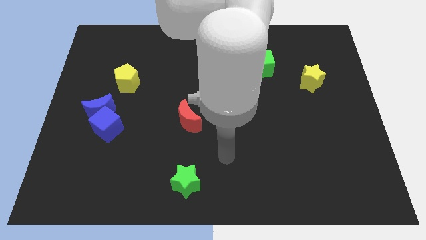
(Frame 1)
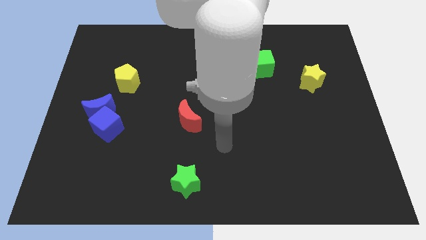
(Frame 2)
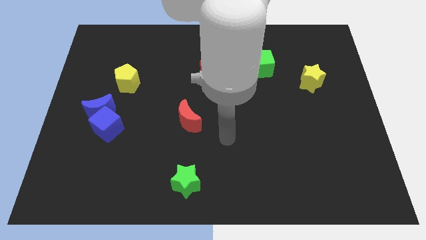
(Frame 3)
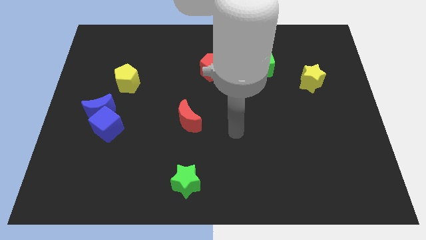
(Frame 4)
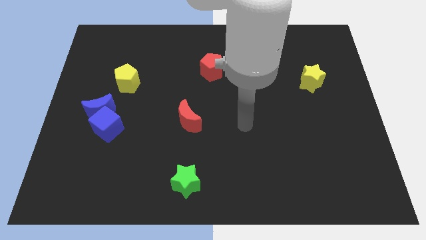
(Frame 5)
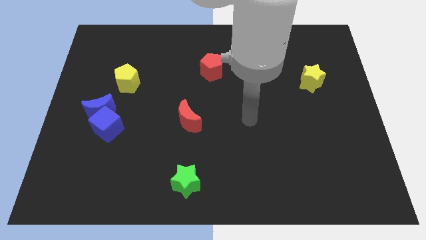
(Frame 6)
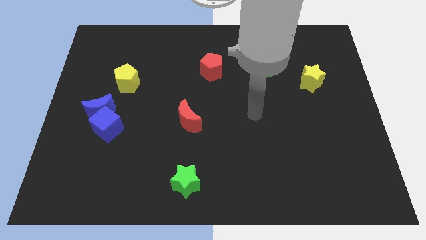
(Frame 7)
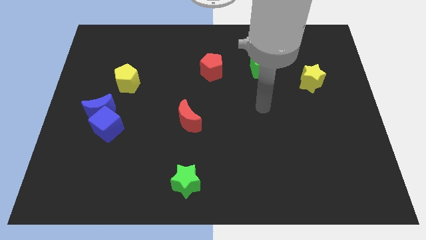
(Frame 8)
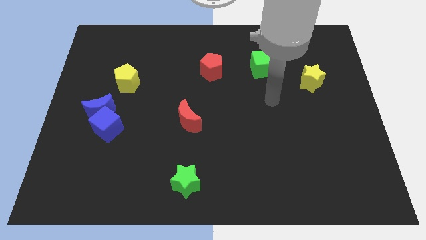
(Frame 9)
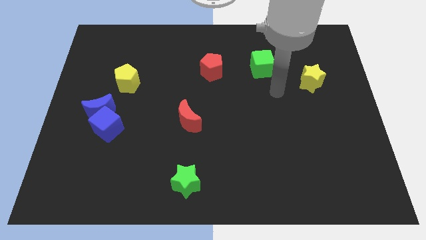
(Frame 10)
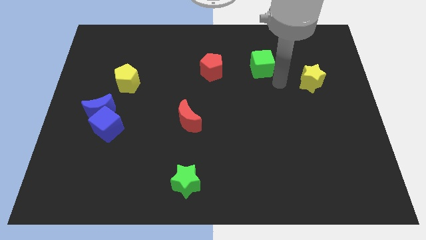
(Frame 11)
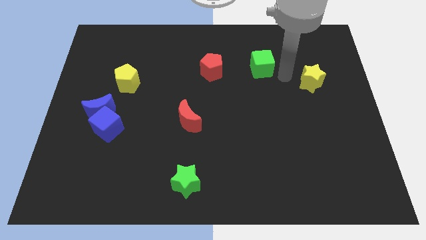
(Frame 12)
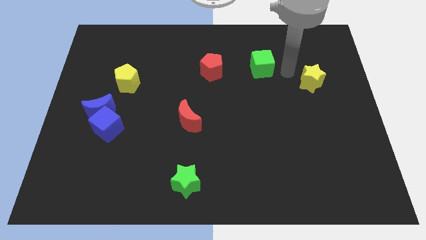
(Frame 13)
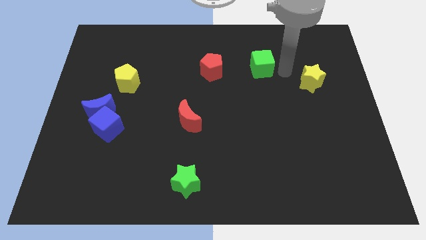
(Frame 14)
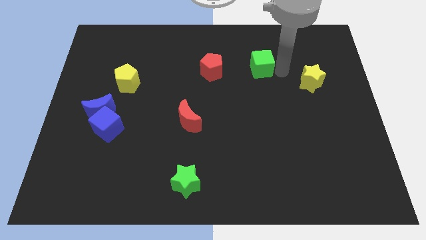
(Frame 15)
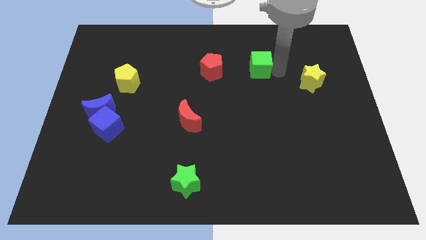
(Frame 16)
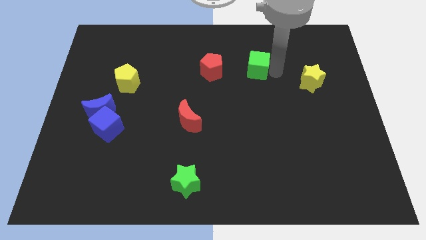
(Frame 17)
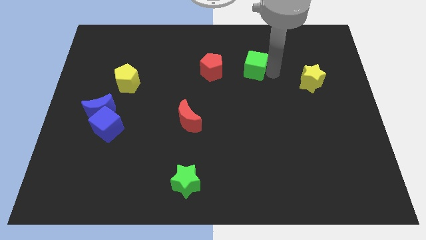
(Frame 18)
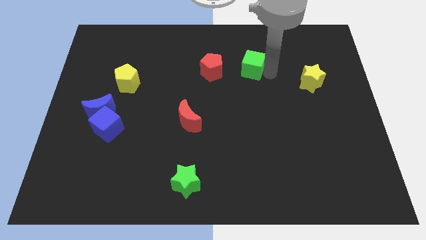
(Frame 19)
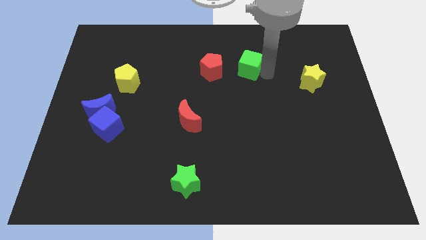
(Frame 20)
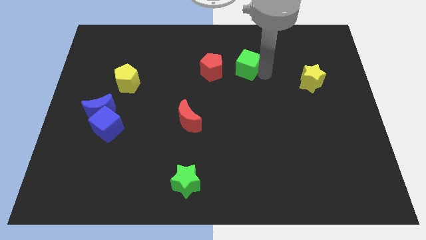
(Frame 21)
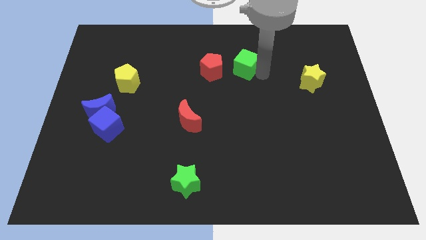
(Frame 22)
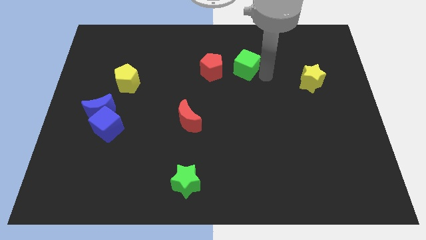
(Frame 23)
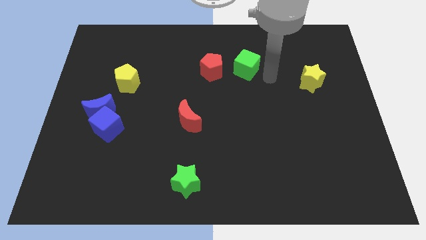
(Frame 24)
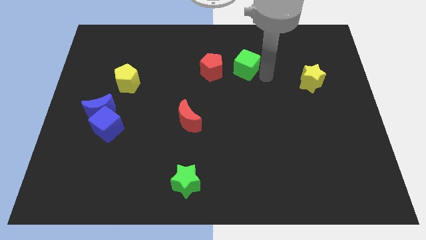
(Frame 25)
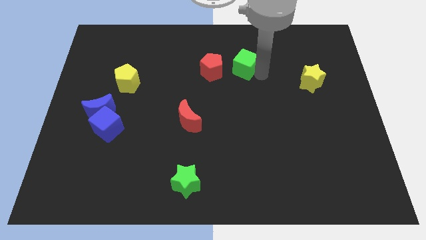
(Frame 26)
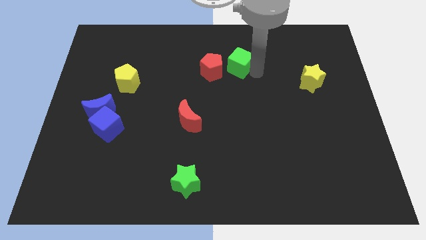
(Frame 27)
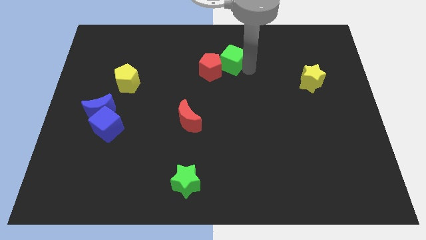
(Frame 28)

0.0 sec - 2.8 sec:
slightly push the green cube left

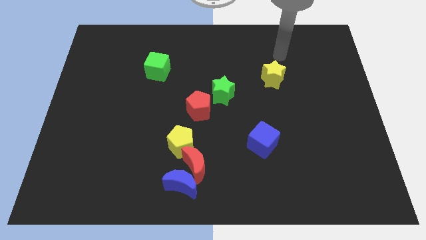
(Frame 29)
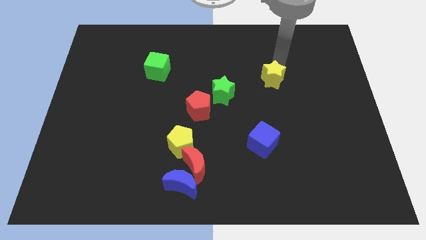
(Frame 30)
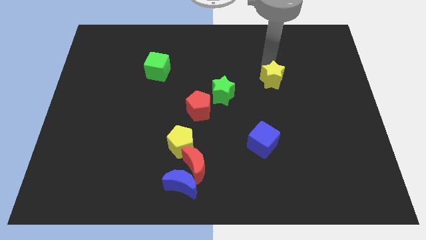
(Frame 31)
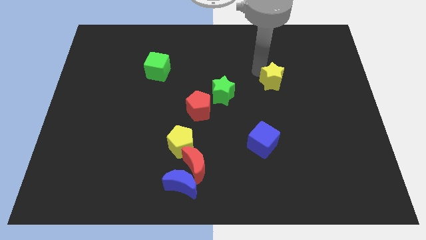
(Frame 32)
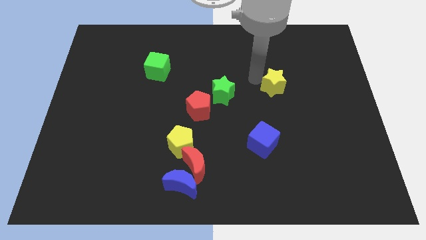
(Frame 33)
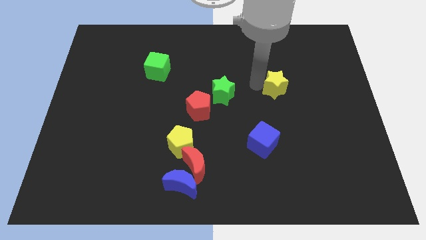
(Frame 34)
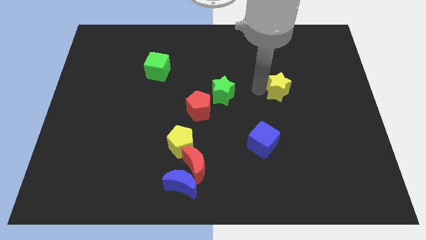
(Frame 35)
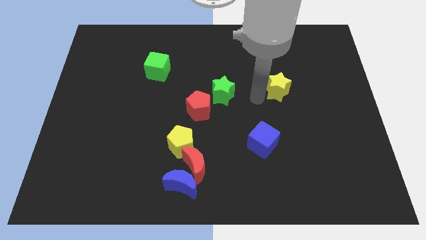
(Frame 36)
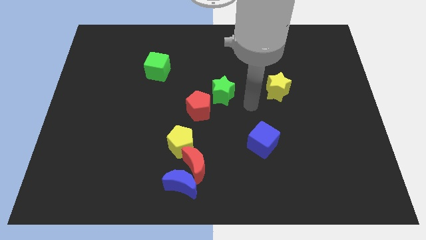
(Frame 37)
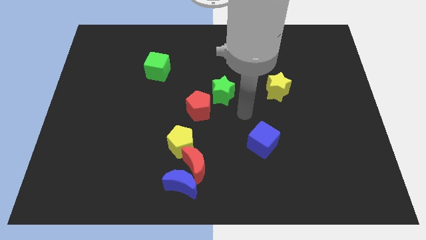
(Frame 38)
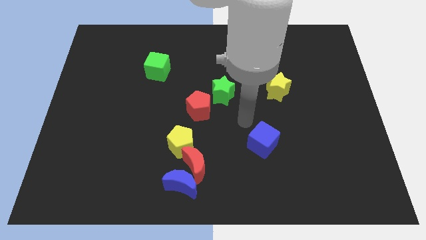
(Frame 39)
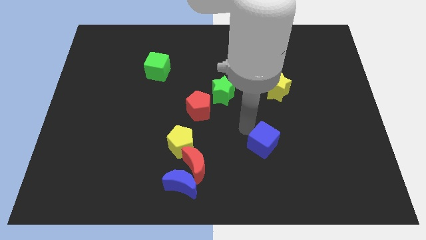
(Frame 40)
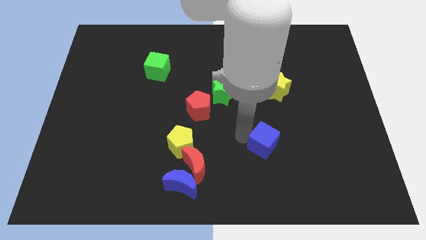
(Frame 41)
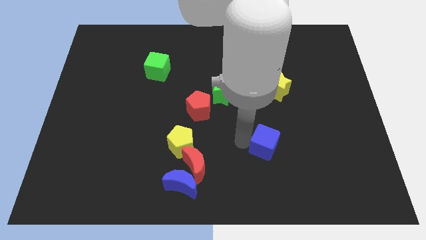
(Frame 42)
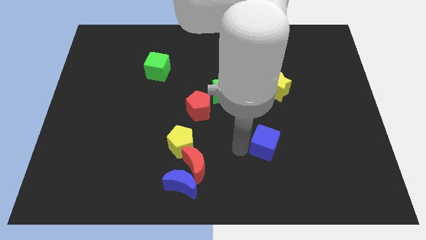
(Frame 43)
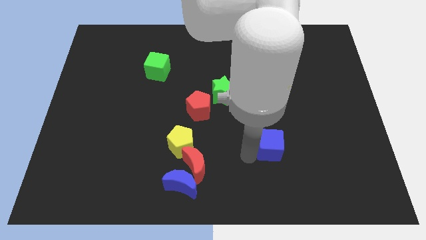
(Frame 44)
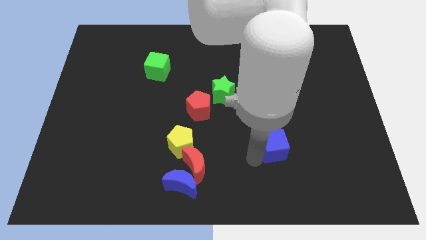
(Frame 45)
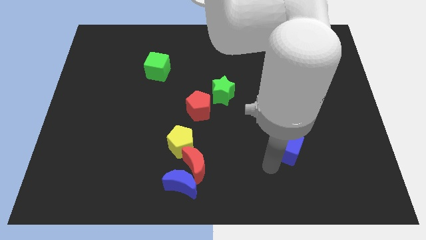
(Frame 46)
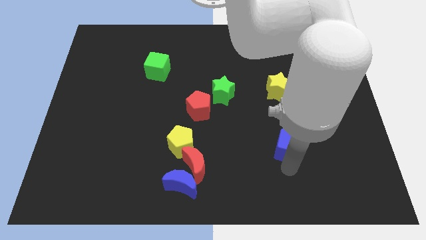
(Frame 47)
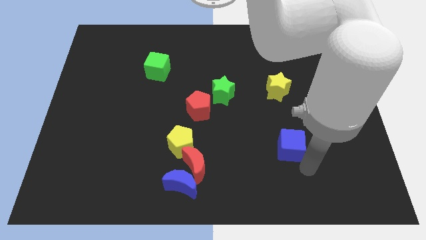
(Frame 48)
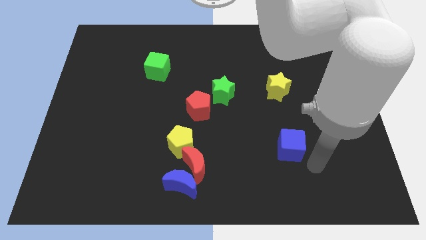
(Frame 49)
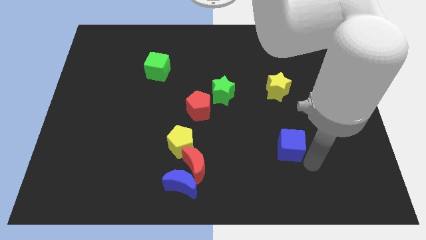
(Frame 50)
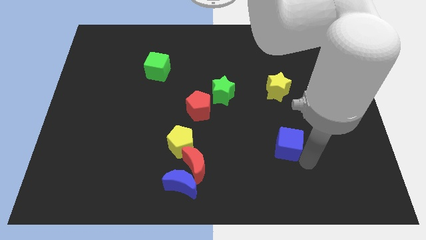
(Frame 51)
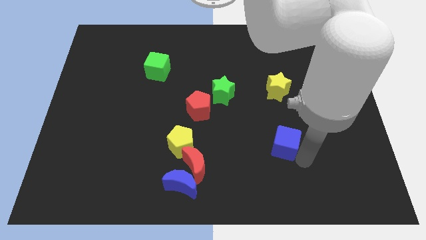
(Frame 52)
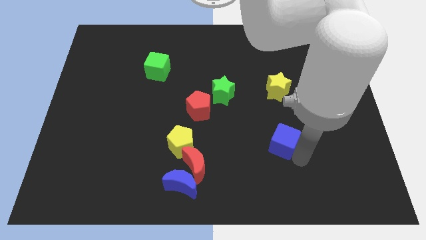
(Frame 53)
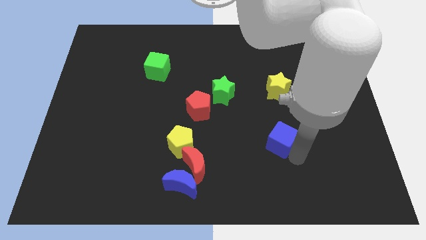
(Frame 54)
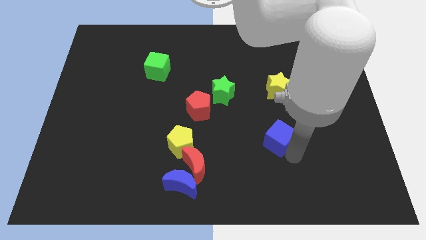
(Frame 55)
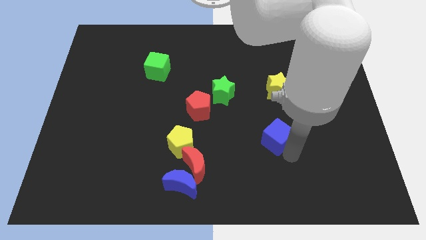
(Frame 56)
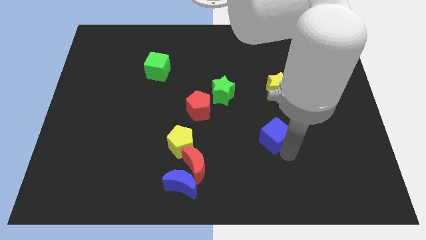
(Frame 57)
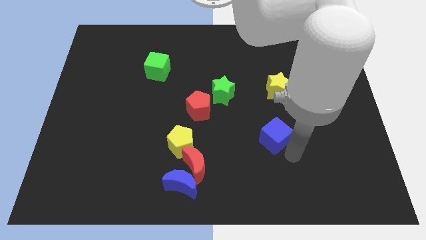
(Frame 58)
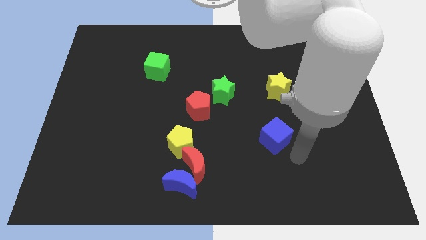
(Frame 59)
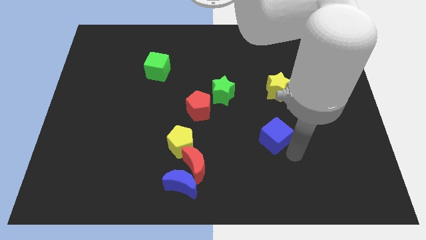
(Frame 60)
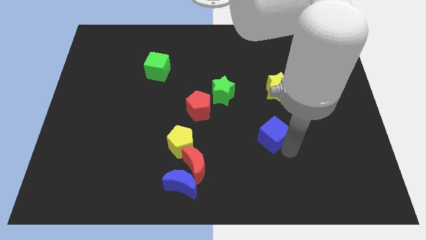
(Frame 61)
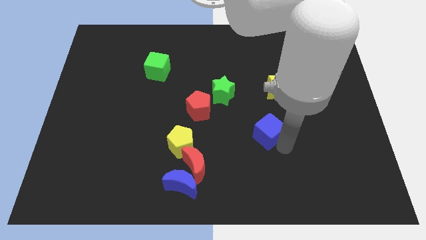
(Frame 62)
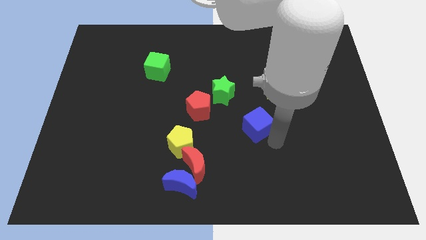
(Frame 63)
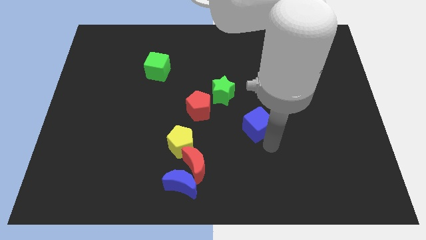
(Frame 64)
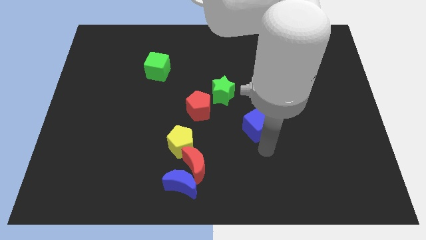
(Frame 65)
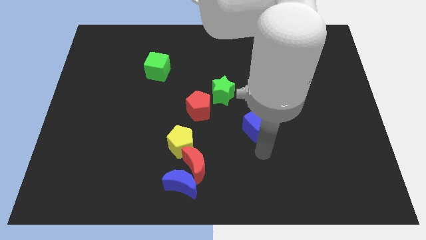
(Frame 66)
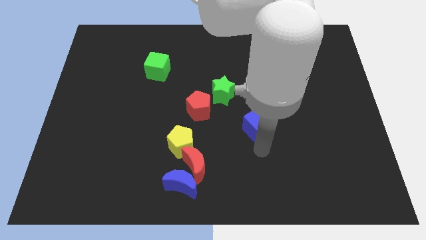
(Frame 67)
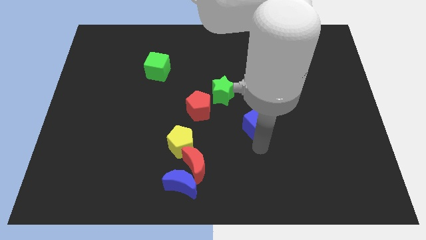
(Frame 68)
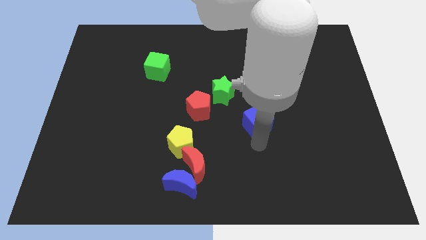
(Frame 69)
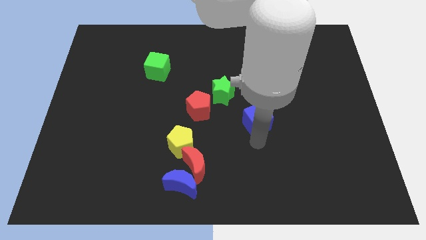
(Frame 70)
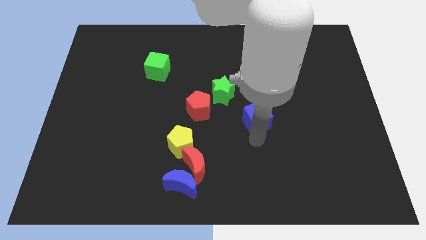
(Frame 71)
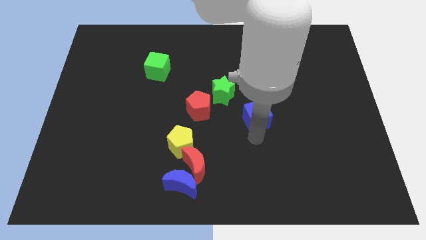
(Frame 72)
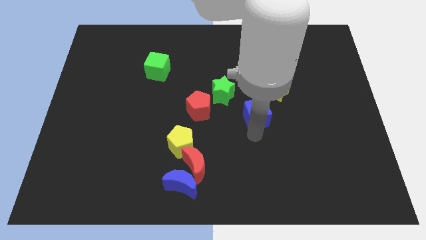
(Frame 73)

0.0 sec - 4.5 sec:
slightly slide the blue cube upwards

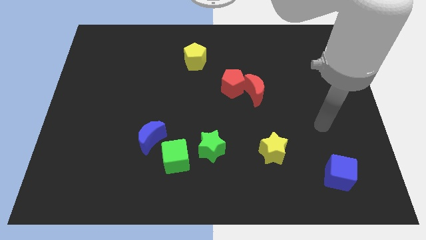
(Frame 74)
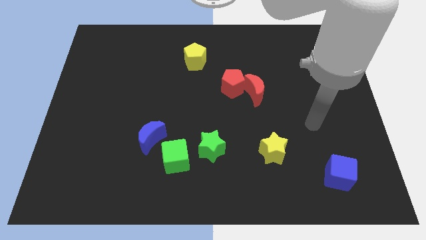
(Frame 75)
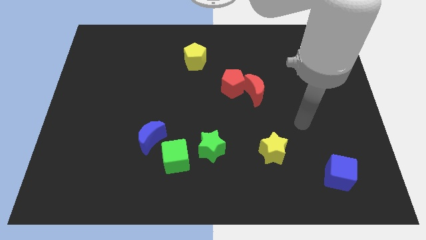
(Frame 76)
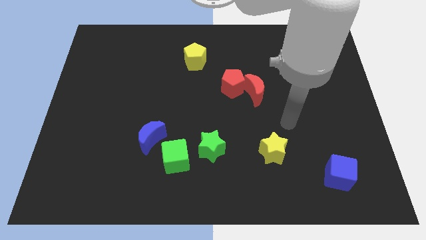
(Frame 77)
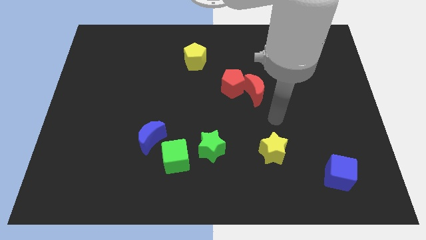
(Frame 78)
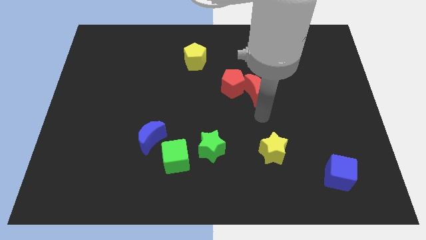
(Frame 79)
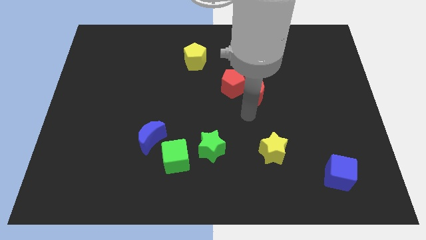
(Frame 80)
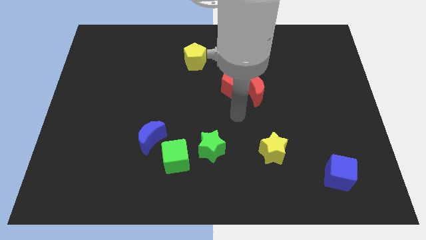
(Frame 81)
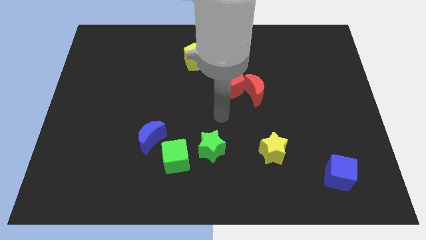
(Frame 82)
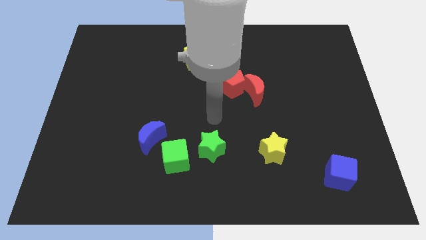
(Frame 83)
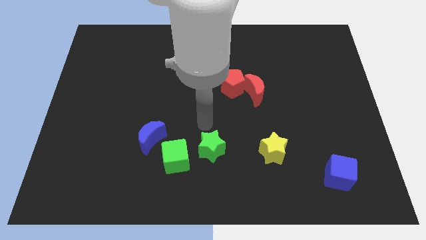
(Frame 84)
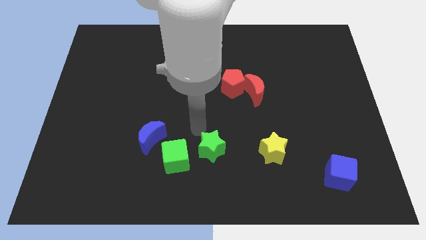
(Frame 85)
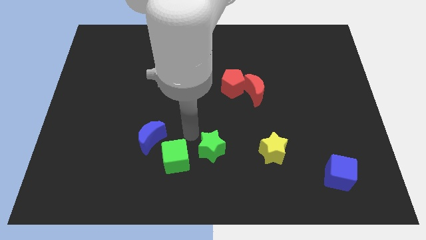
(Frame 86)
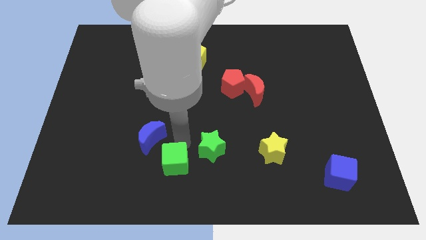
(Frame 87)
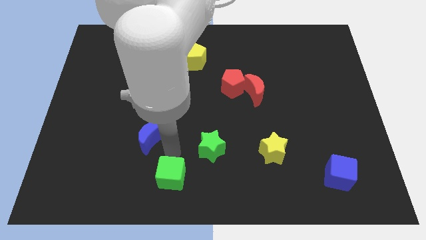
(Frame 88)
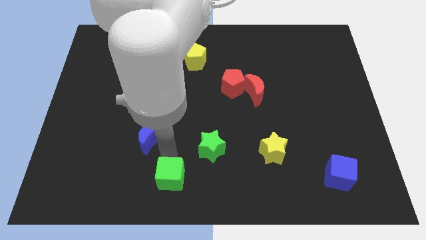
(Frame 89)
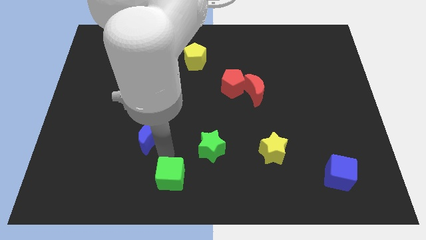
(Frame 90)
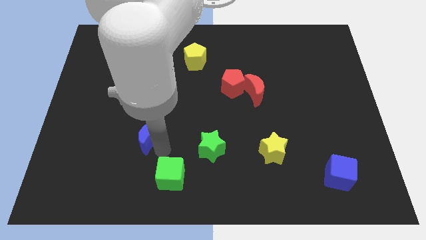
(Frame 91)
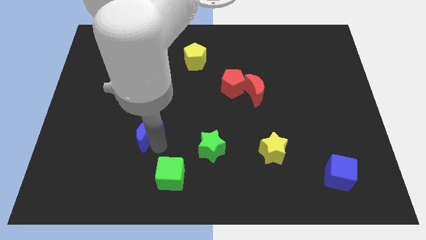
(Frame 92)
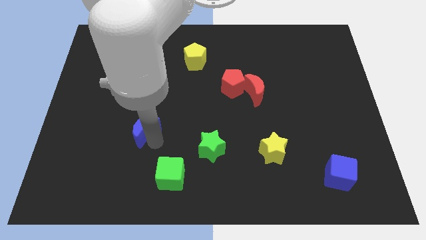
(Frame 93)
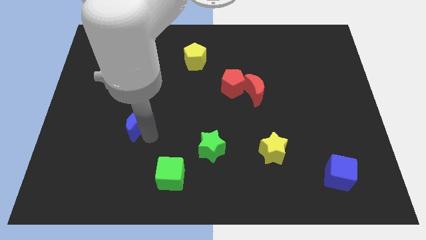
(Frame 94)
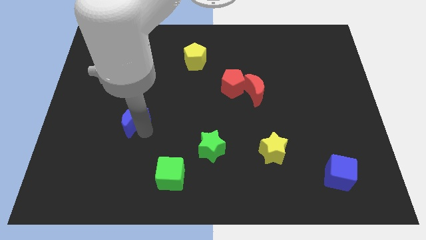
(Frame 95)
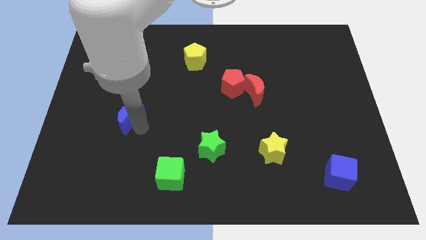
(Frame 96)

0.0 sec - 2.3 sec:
move the blue moon diagonally upwards and to the left a little
